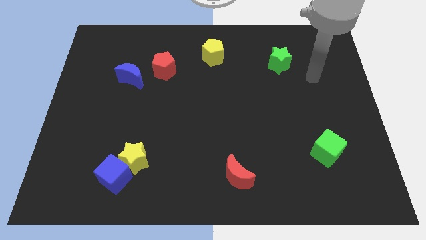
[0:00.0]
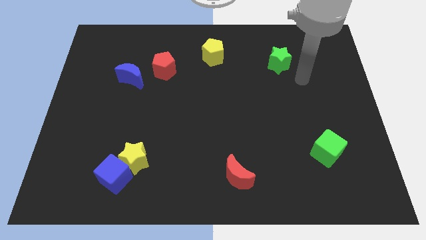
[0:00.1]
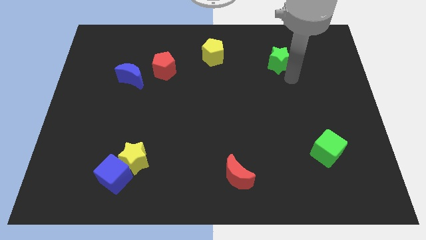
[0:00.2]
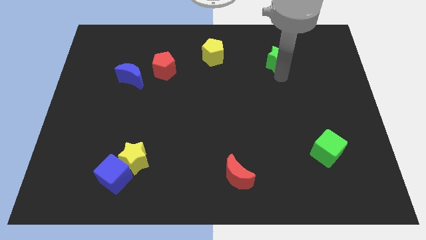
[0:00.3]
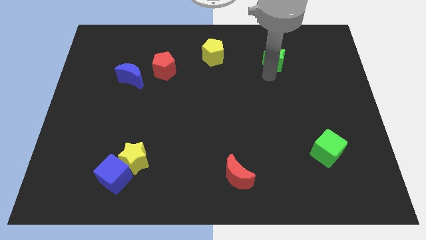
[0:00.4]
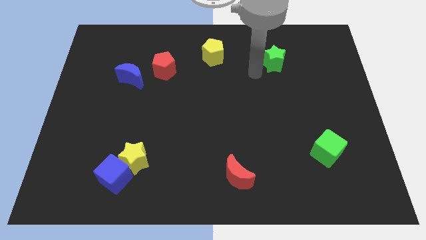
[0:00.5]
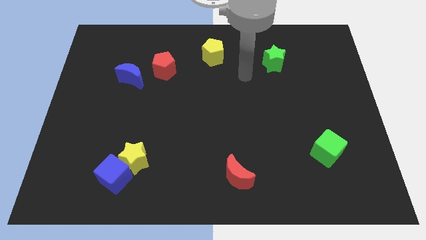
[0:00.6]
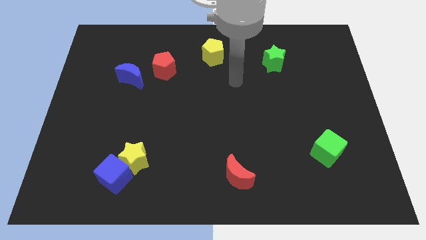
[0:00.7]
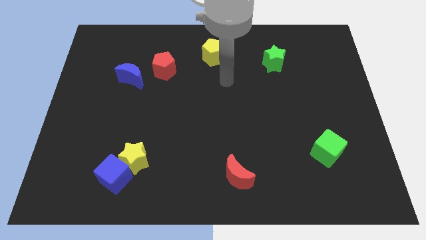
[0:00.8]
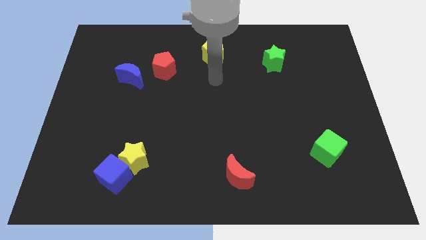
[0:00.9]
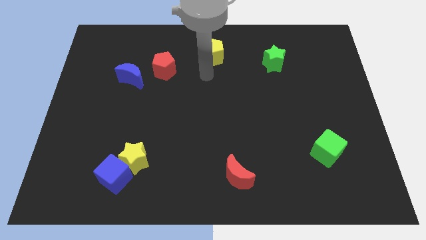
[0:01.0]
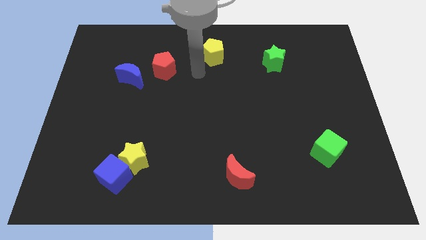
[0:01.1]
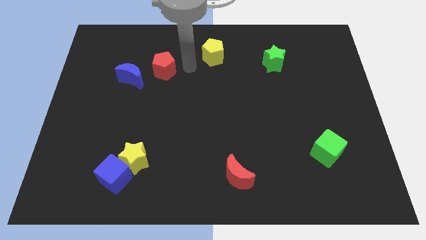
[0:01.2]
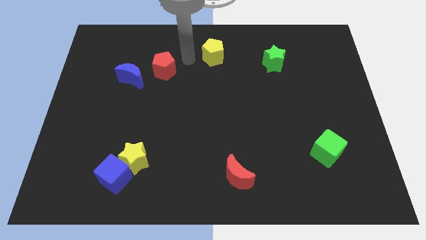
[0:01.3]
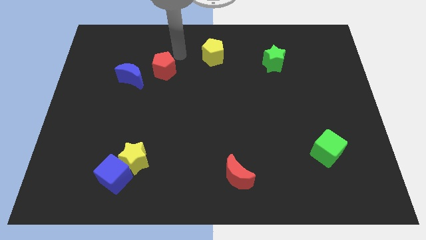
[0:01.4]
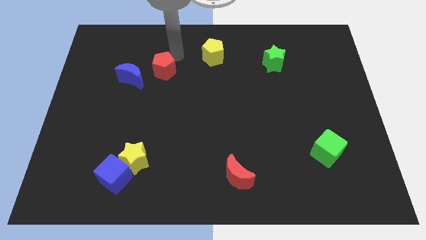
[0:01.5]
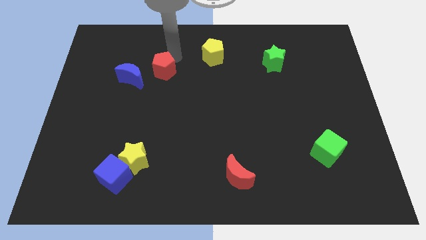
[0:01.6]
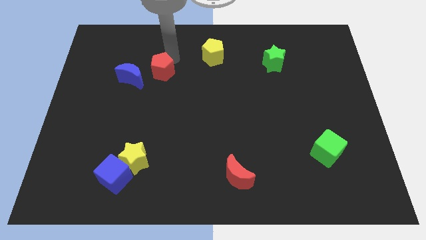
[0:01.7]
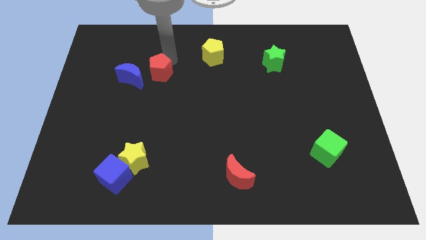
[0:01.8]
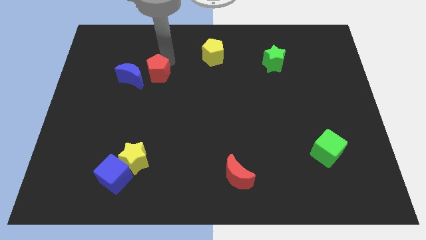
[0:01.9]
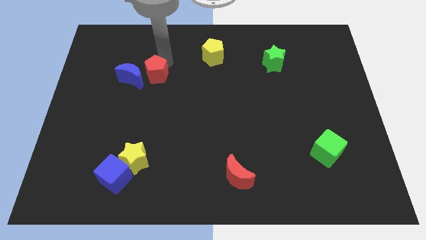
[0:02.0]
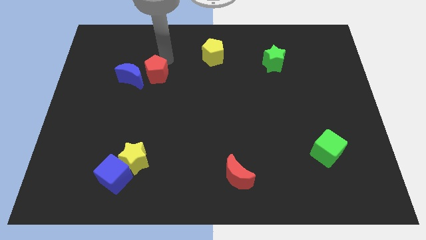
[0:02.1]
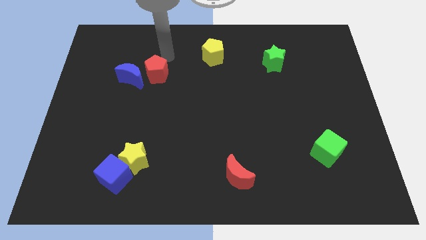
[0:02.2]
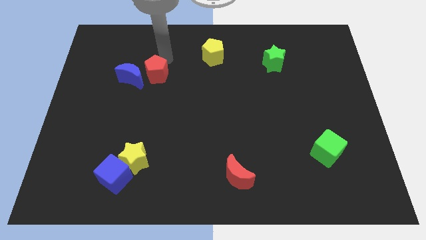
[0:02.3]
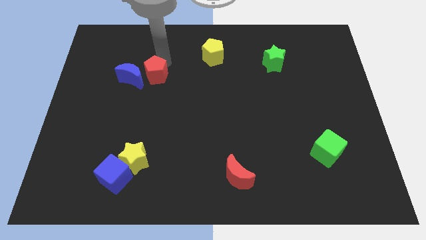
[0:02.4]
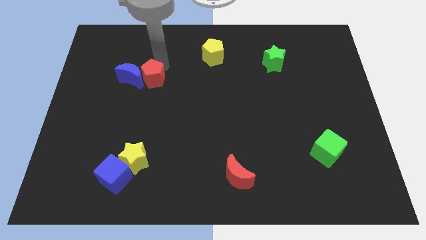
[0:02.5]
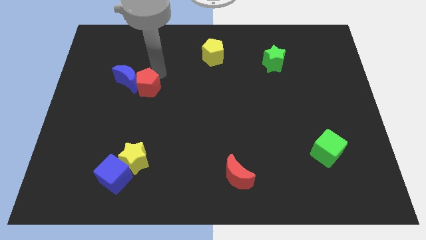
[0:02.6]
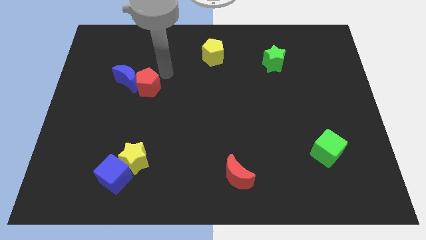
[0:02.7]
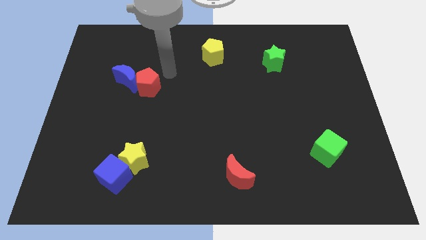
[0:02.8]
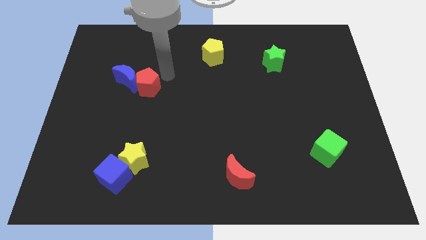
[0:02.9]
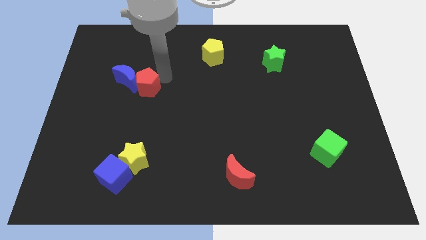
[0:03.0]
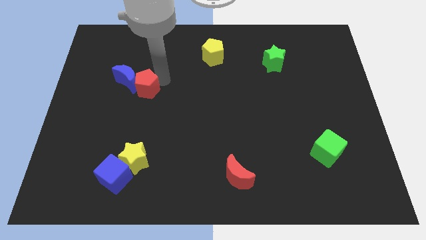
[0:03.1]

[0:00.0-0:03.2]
slide the red pentagon diagonally downwards and left a little

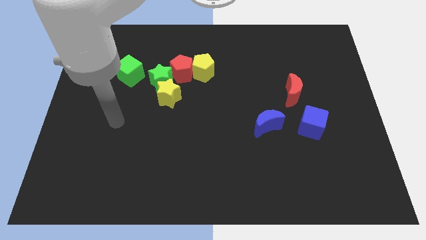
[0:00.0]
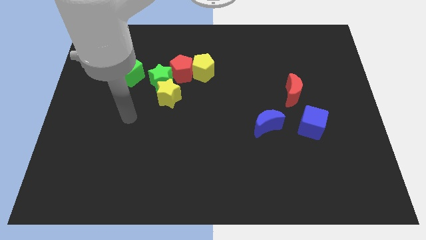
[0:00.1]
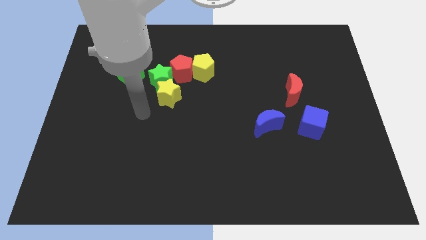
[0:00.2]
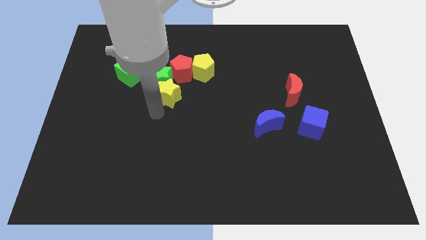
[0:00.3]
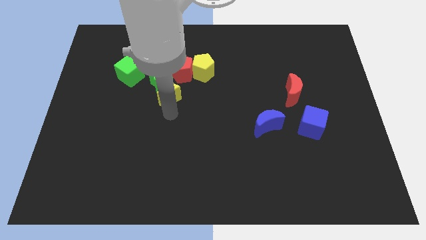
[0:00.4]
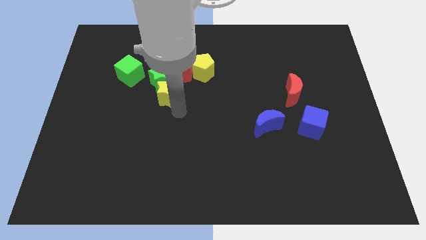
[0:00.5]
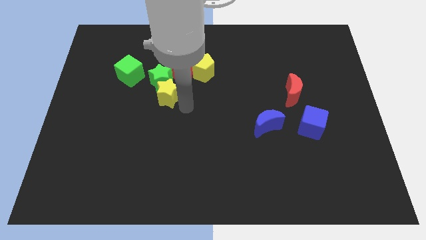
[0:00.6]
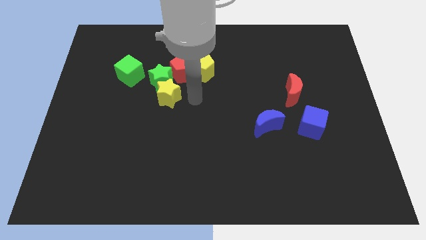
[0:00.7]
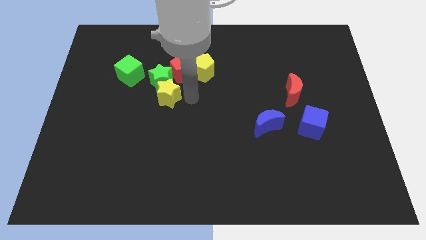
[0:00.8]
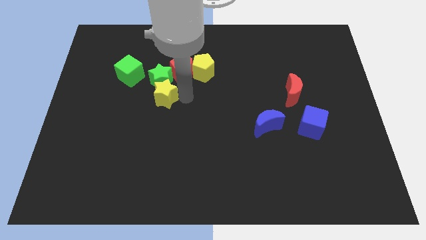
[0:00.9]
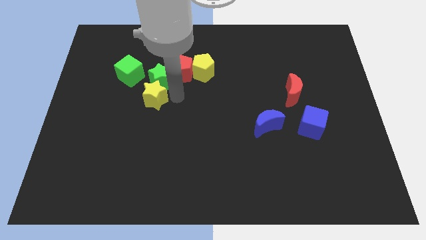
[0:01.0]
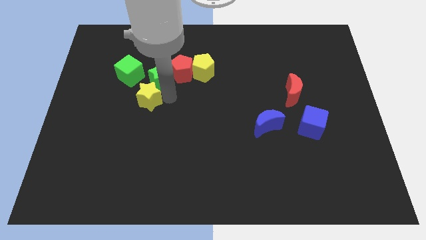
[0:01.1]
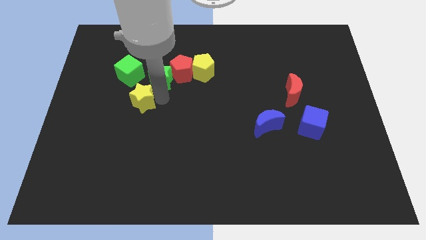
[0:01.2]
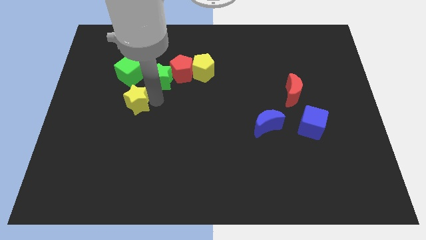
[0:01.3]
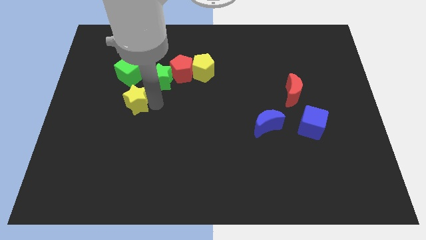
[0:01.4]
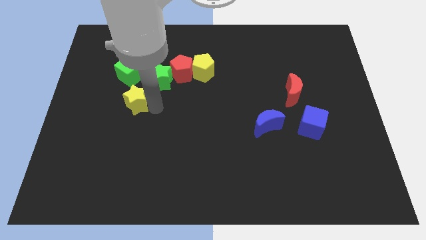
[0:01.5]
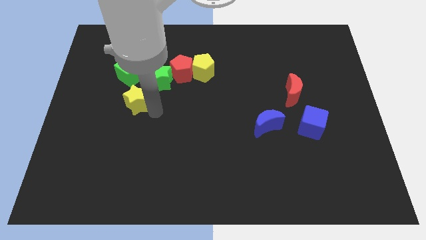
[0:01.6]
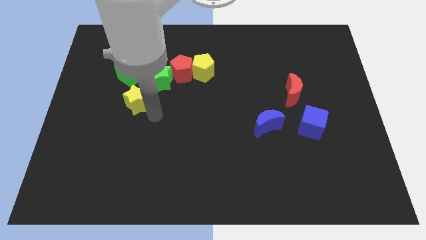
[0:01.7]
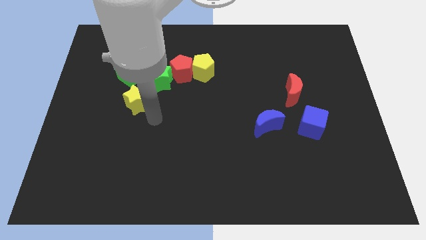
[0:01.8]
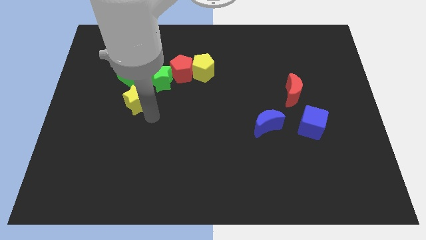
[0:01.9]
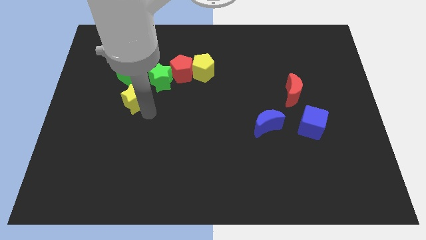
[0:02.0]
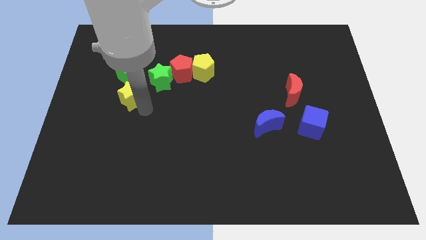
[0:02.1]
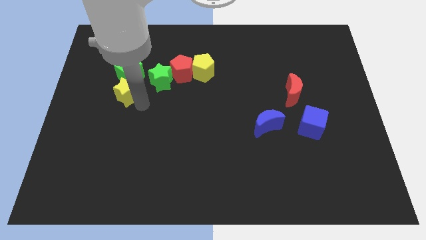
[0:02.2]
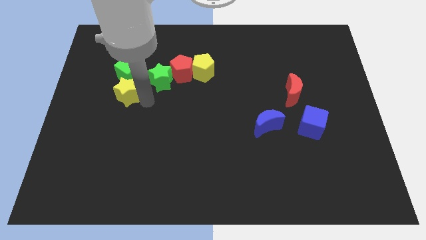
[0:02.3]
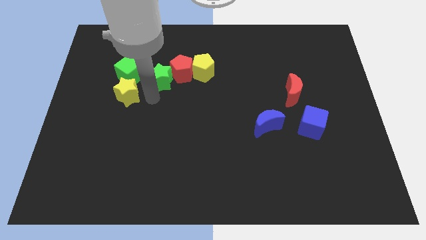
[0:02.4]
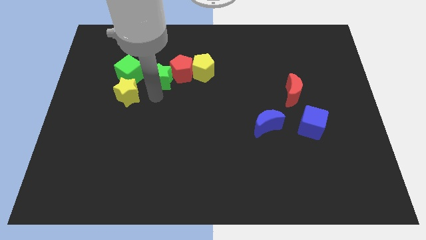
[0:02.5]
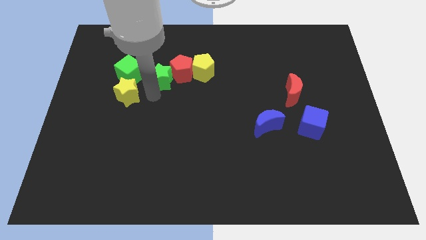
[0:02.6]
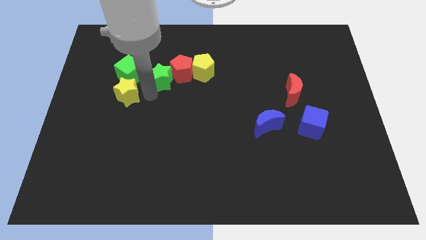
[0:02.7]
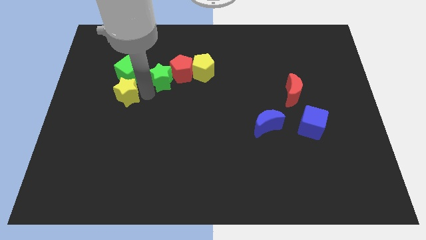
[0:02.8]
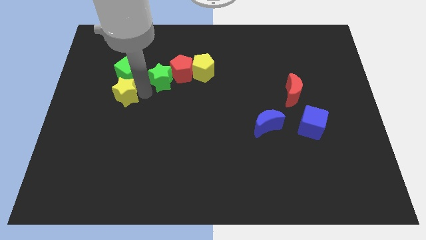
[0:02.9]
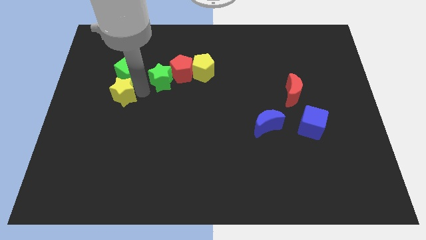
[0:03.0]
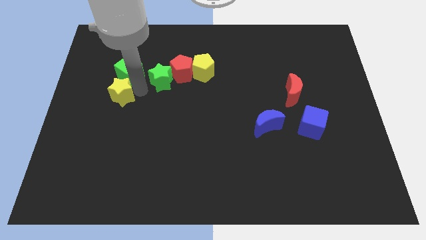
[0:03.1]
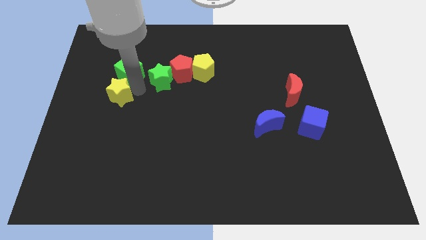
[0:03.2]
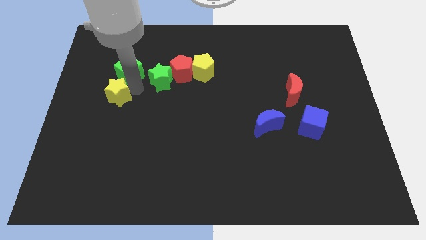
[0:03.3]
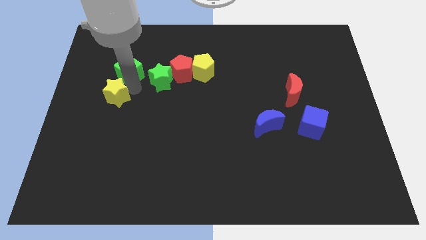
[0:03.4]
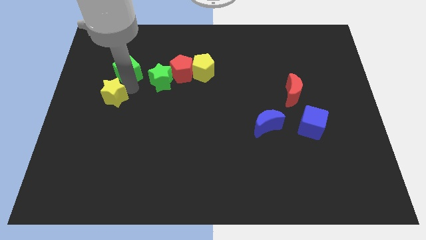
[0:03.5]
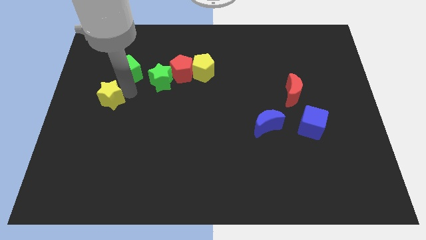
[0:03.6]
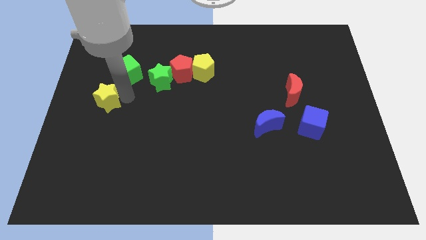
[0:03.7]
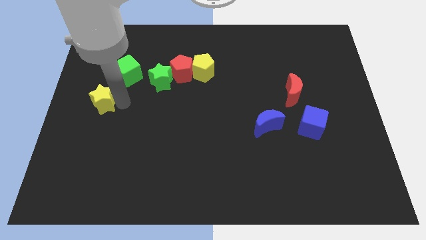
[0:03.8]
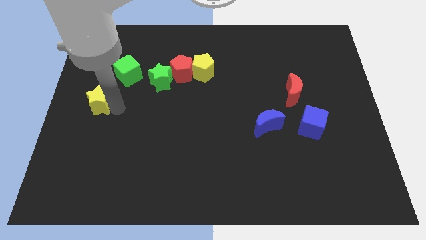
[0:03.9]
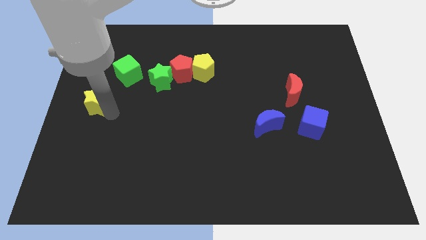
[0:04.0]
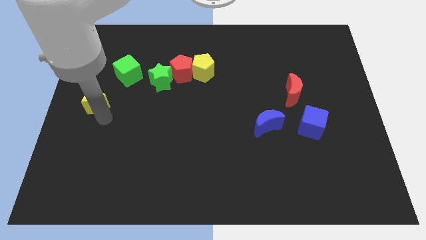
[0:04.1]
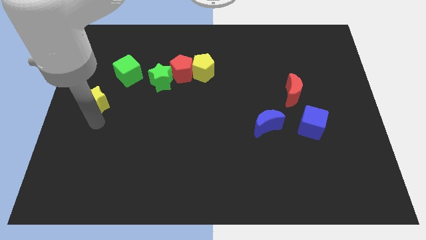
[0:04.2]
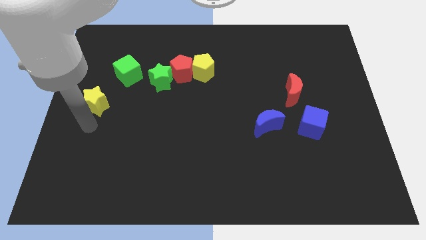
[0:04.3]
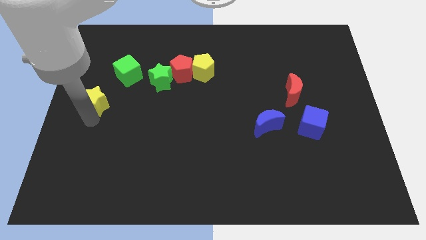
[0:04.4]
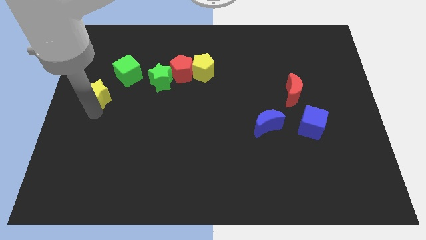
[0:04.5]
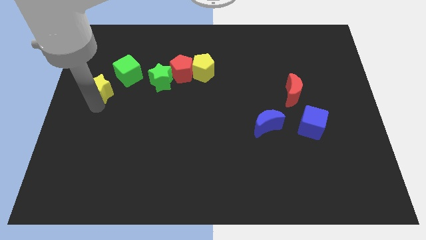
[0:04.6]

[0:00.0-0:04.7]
slightly move the yellow star up and left diagonally

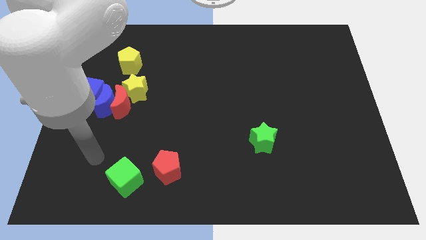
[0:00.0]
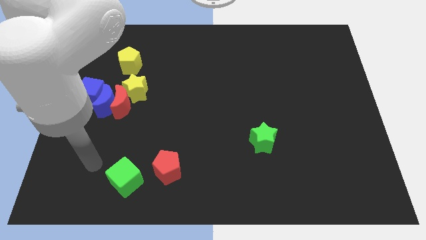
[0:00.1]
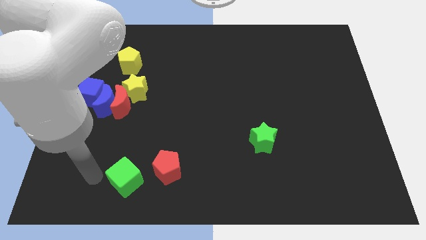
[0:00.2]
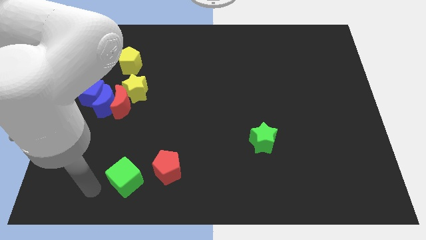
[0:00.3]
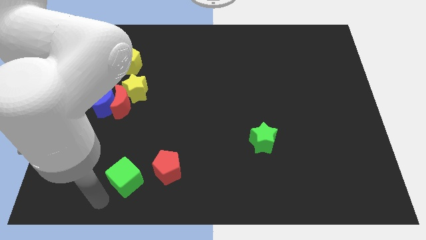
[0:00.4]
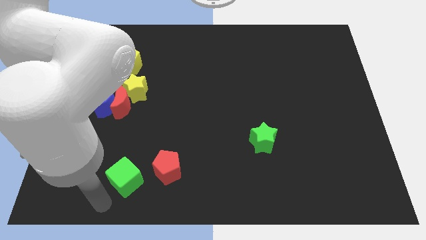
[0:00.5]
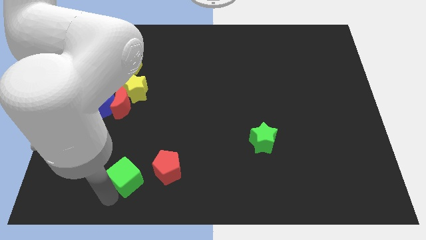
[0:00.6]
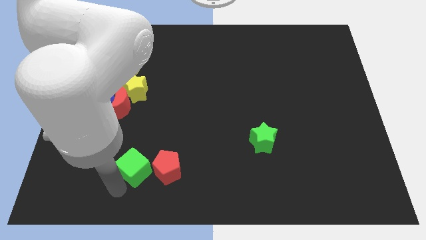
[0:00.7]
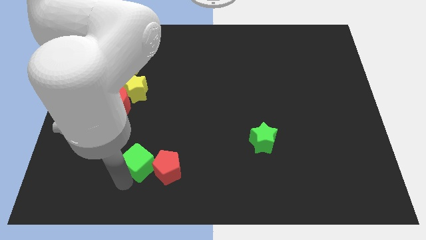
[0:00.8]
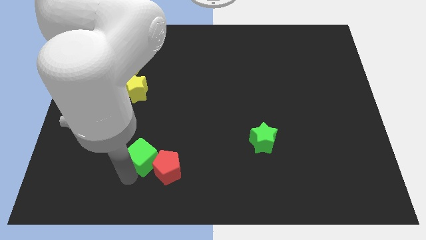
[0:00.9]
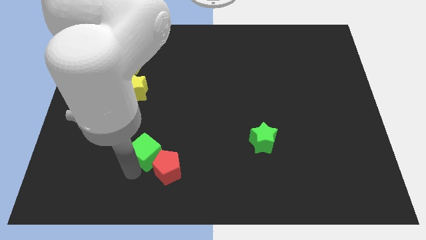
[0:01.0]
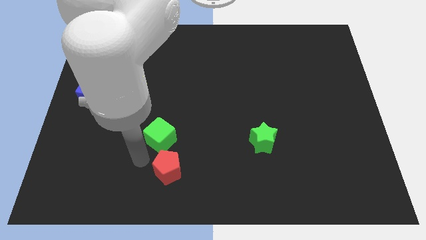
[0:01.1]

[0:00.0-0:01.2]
slide the green cube upwards and right diagonally a bit
